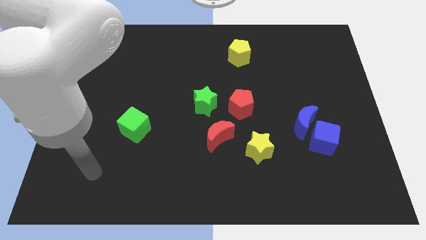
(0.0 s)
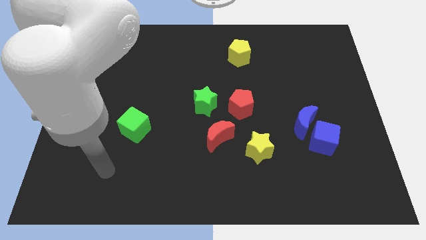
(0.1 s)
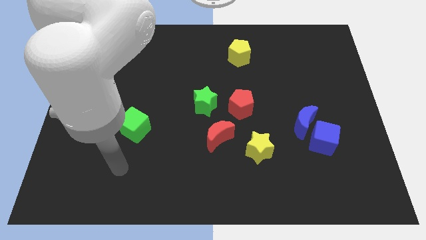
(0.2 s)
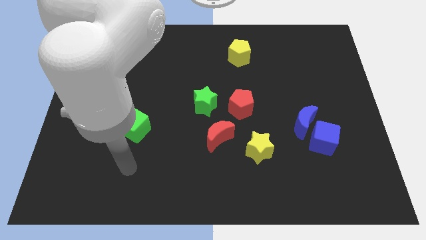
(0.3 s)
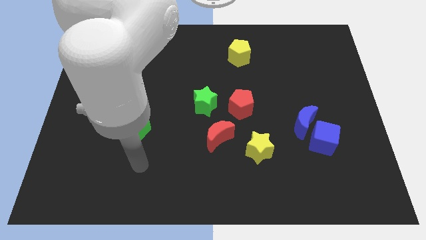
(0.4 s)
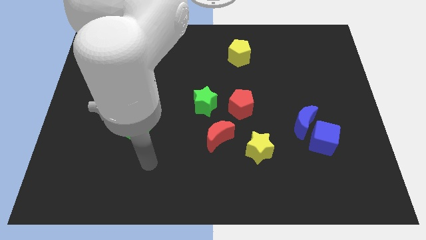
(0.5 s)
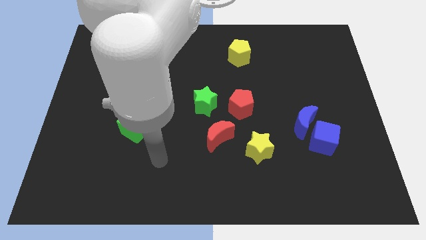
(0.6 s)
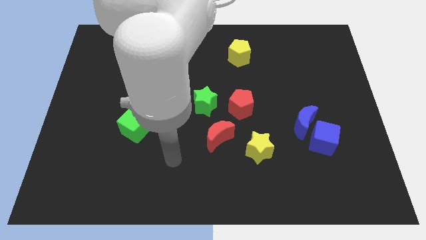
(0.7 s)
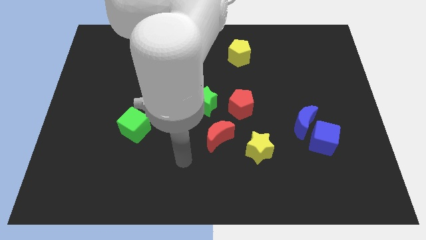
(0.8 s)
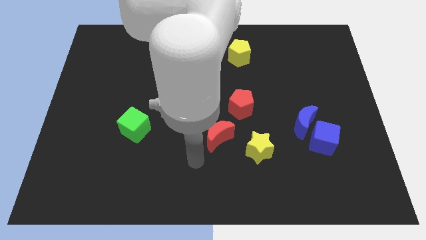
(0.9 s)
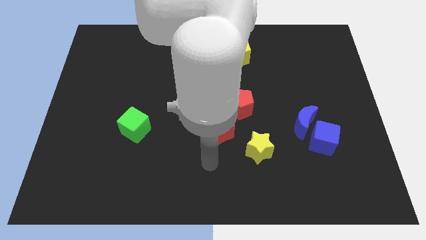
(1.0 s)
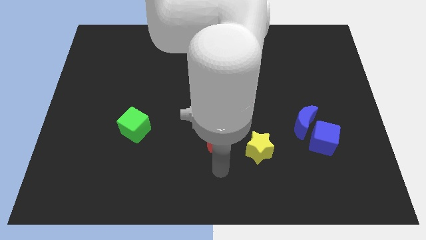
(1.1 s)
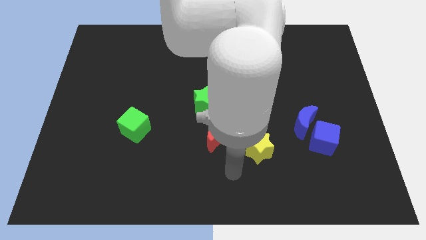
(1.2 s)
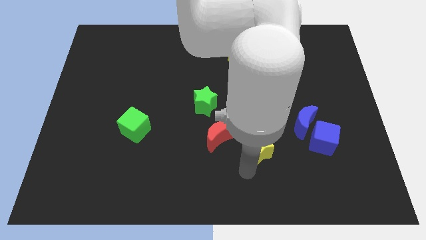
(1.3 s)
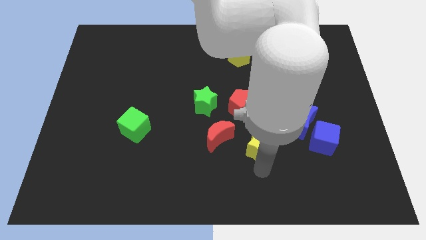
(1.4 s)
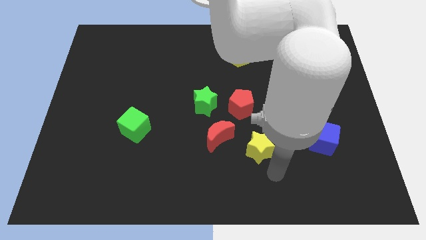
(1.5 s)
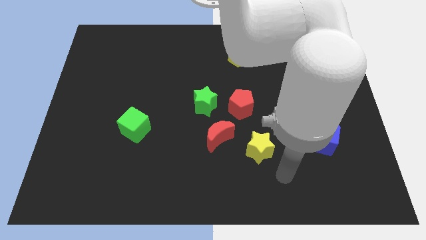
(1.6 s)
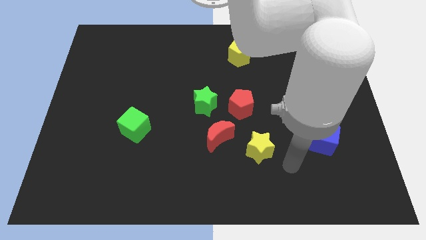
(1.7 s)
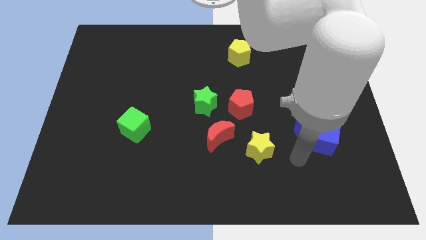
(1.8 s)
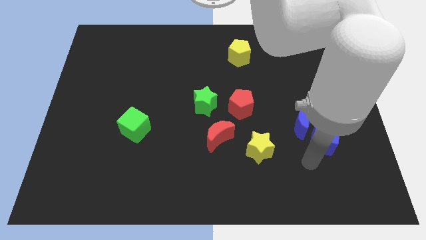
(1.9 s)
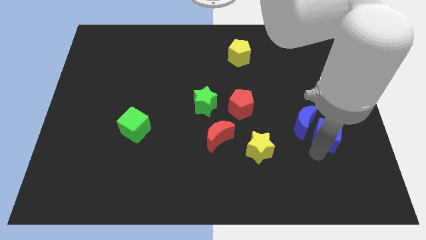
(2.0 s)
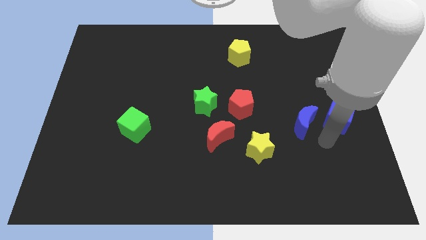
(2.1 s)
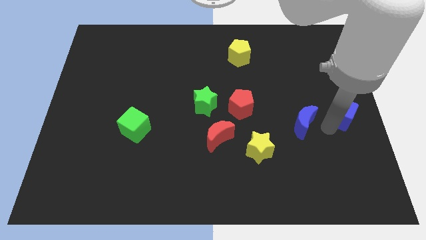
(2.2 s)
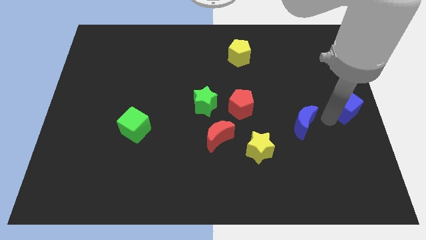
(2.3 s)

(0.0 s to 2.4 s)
move the blue moon away from the blue cube

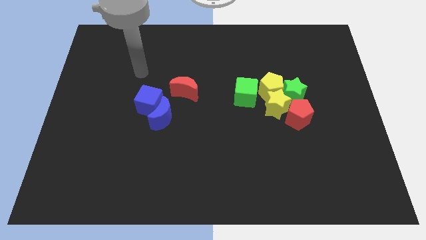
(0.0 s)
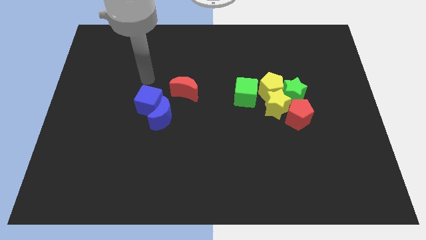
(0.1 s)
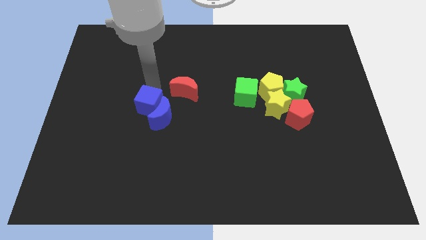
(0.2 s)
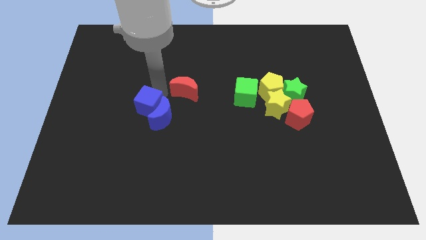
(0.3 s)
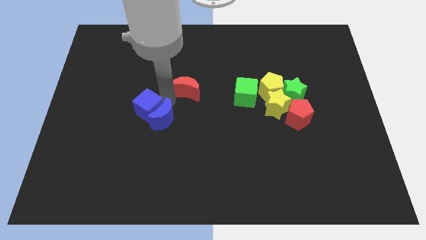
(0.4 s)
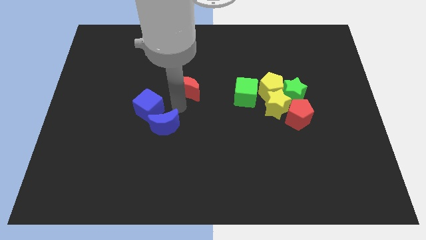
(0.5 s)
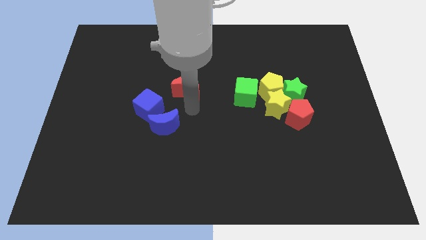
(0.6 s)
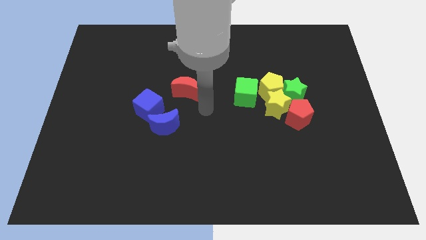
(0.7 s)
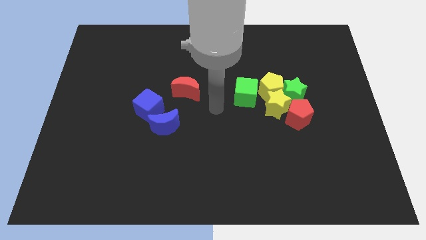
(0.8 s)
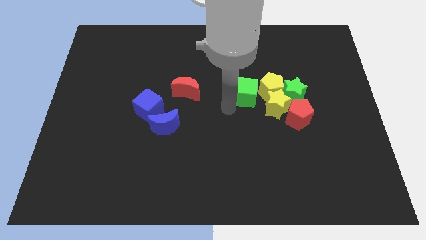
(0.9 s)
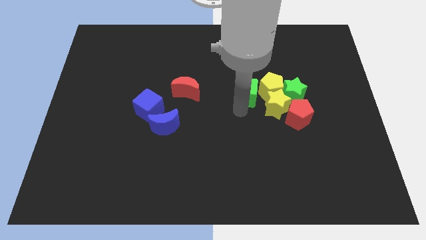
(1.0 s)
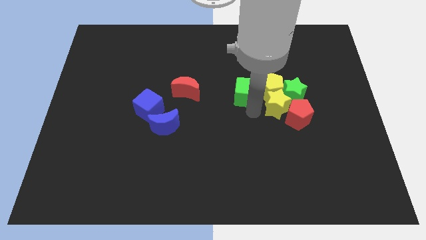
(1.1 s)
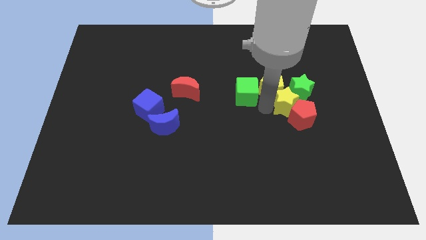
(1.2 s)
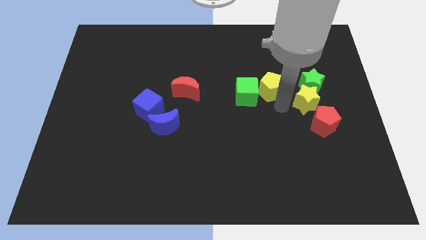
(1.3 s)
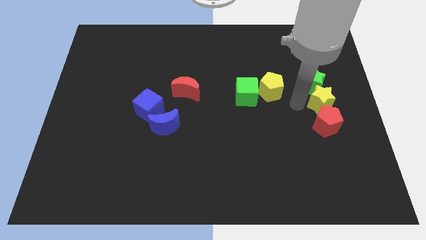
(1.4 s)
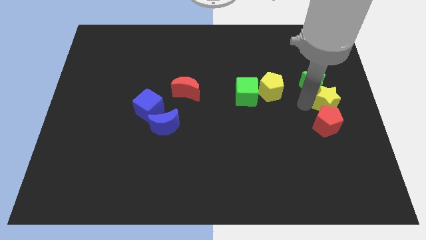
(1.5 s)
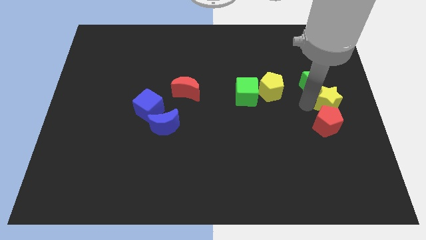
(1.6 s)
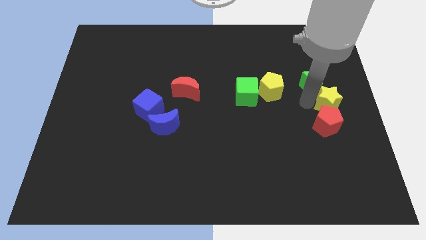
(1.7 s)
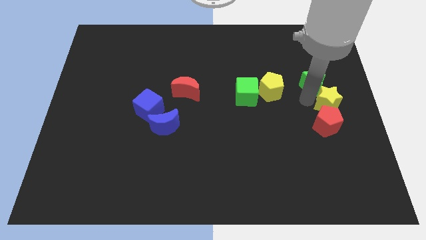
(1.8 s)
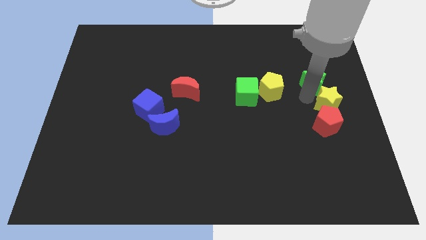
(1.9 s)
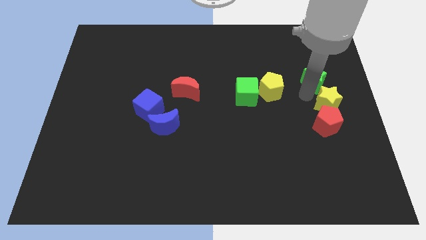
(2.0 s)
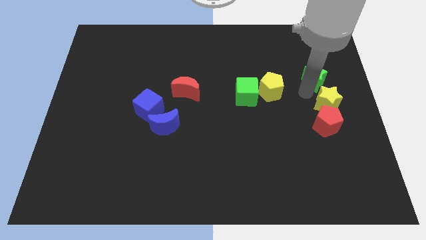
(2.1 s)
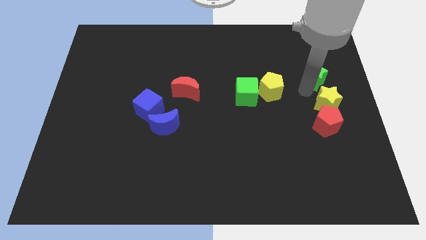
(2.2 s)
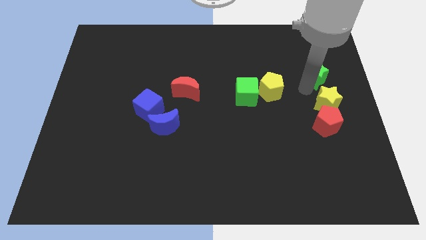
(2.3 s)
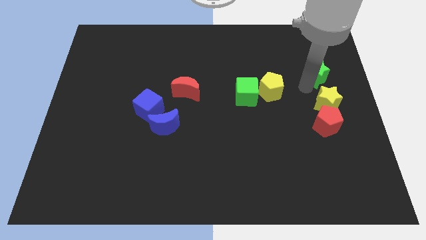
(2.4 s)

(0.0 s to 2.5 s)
move the green star away from the yellow pentagon, yellow star, and red pentagon

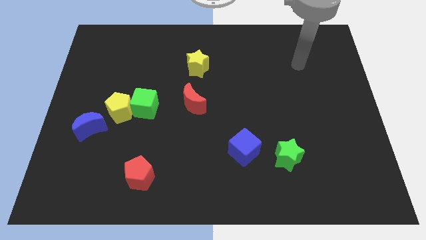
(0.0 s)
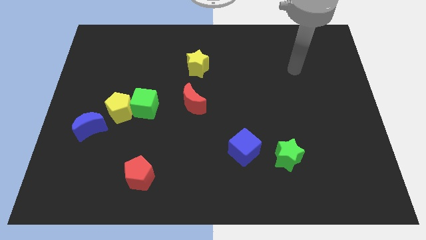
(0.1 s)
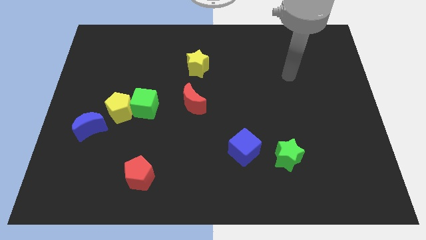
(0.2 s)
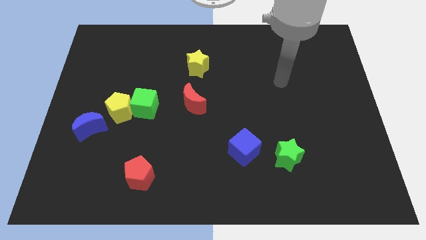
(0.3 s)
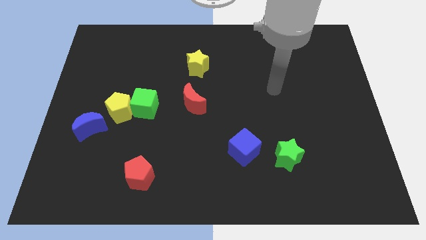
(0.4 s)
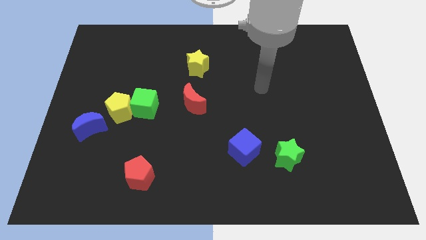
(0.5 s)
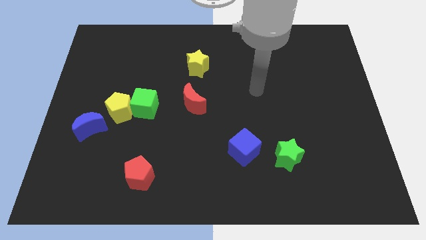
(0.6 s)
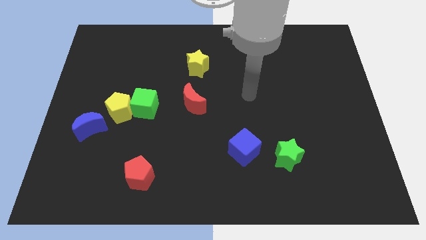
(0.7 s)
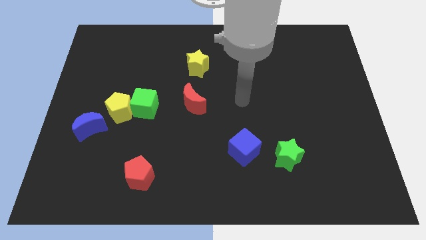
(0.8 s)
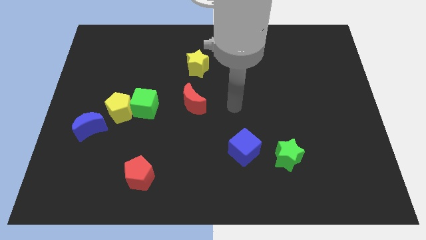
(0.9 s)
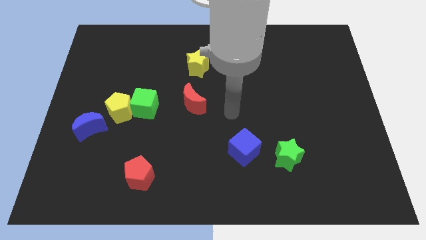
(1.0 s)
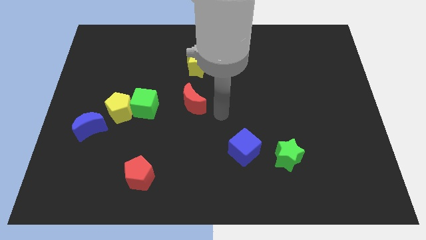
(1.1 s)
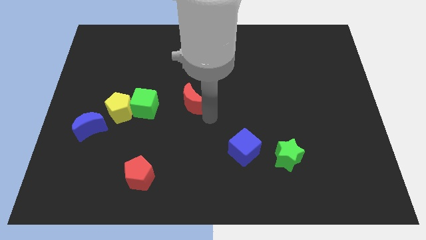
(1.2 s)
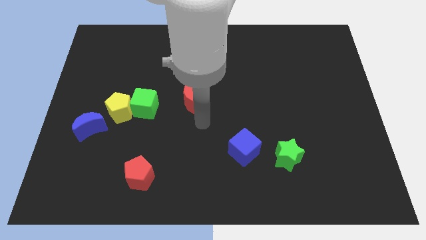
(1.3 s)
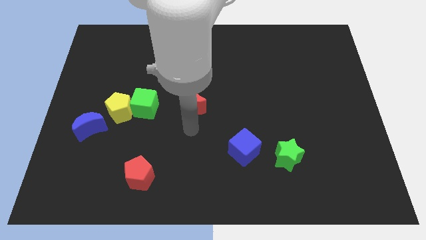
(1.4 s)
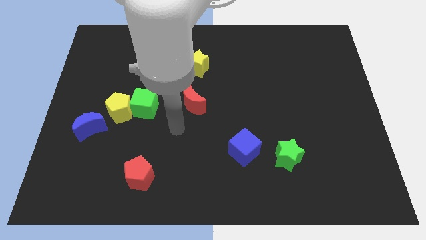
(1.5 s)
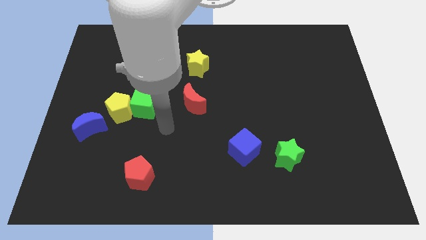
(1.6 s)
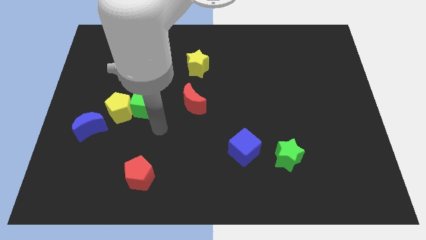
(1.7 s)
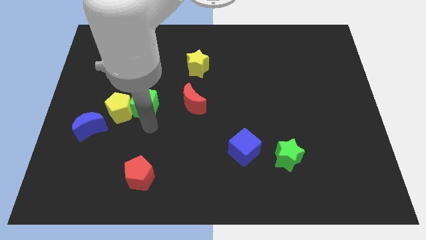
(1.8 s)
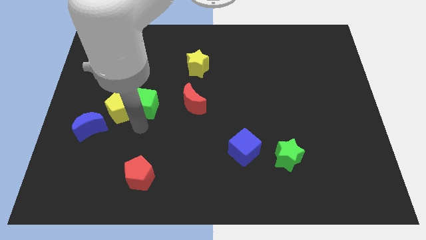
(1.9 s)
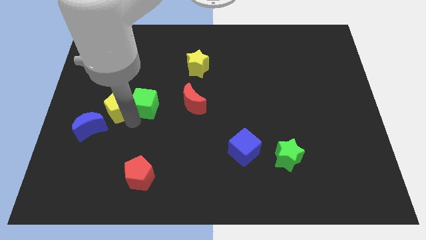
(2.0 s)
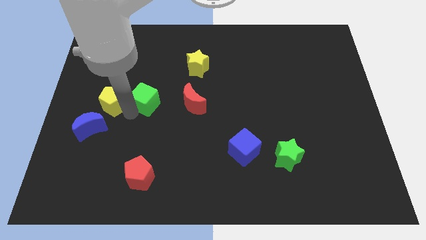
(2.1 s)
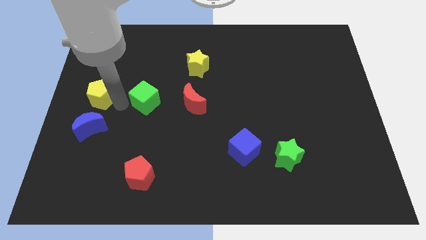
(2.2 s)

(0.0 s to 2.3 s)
move the green cube away from the yellow pentagon

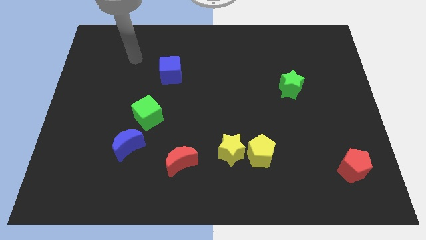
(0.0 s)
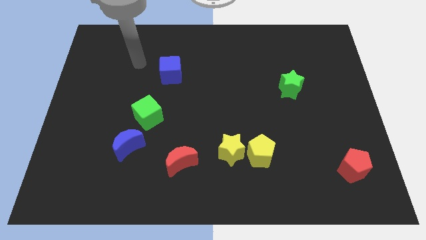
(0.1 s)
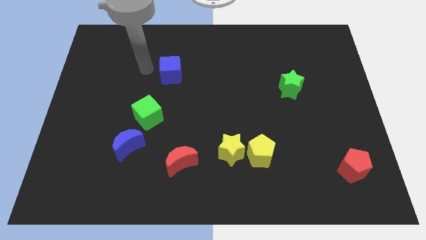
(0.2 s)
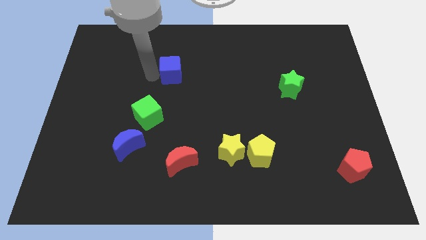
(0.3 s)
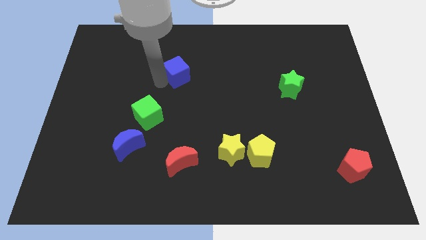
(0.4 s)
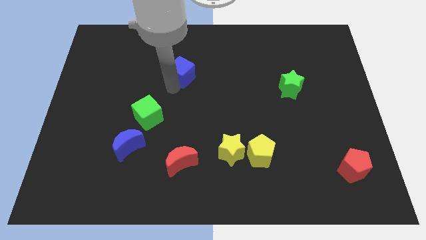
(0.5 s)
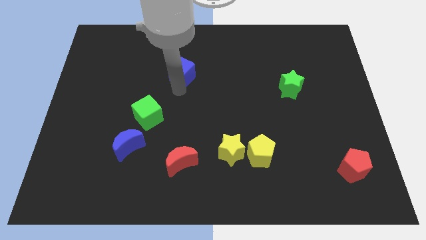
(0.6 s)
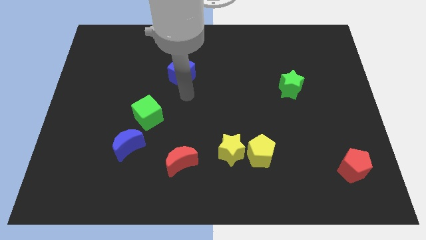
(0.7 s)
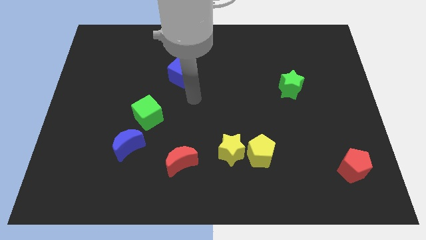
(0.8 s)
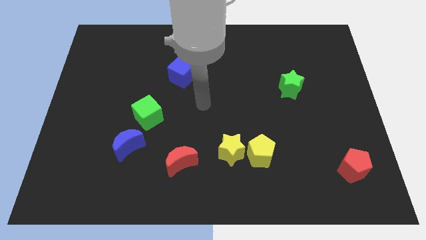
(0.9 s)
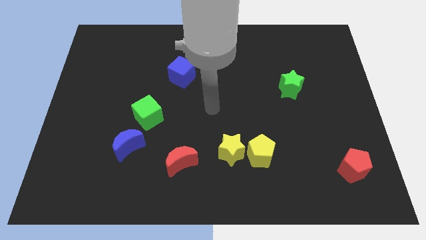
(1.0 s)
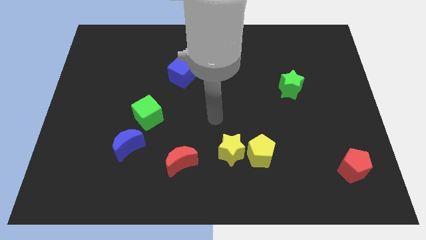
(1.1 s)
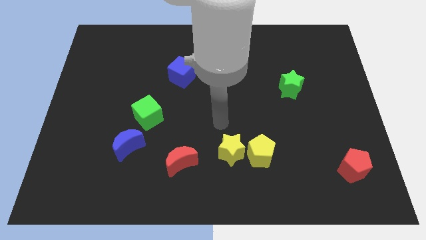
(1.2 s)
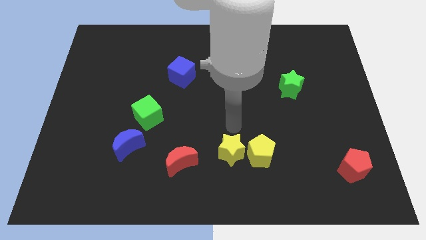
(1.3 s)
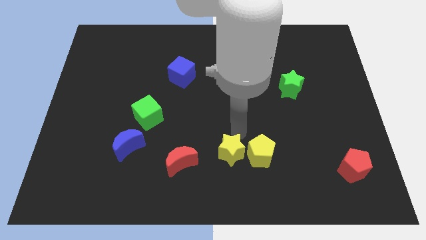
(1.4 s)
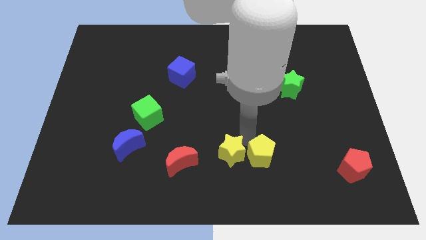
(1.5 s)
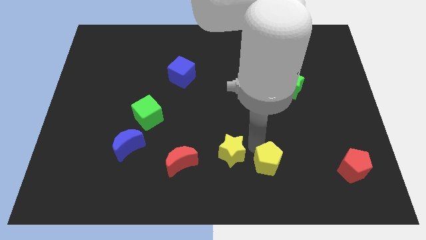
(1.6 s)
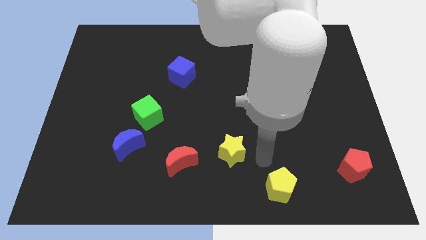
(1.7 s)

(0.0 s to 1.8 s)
move the yellow star away from the yellow pentagon

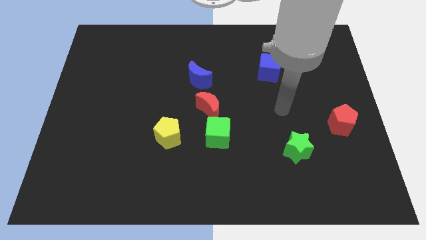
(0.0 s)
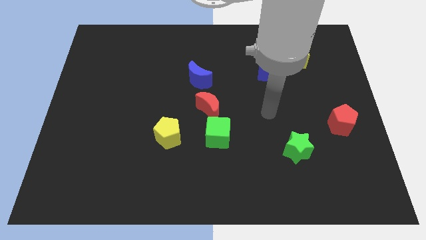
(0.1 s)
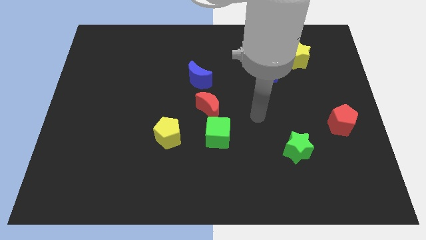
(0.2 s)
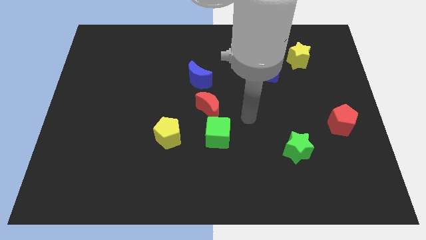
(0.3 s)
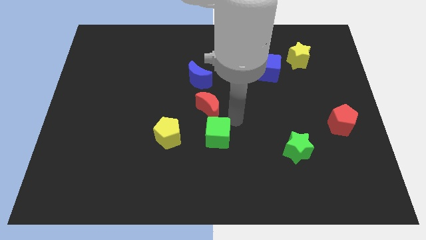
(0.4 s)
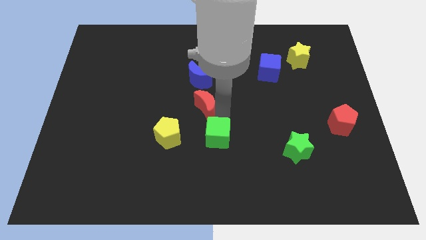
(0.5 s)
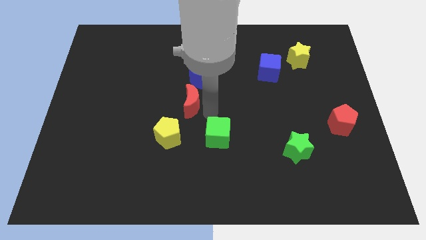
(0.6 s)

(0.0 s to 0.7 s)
separate the green cube from the red moon
